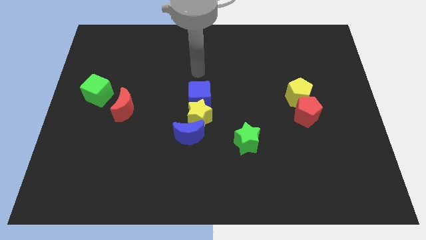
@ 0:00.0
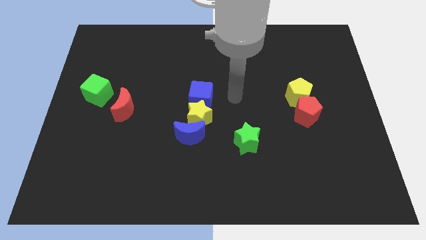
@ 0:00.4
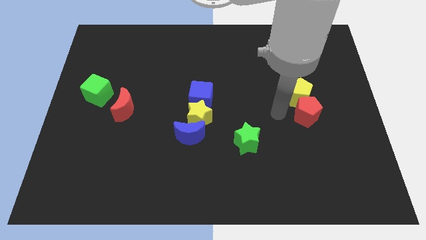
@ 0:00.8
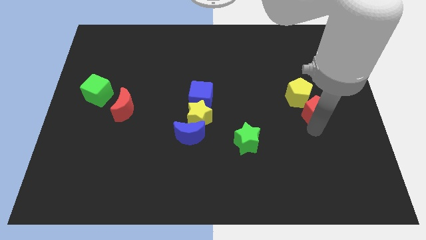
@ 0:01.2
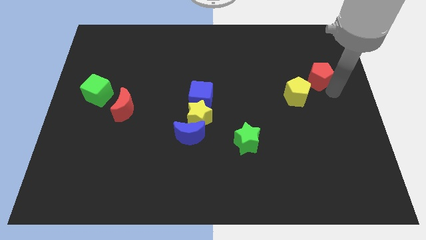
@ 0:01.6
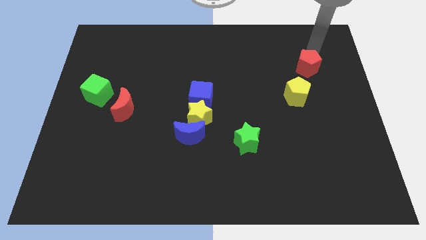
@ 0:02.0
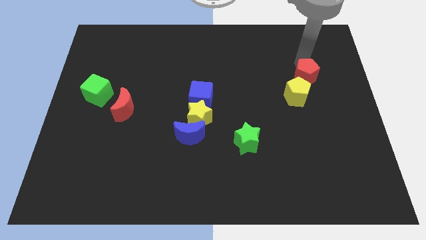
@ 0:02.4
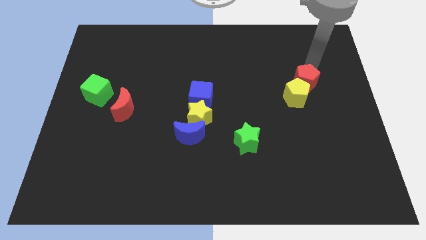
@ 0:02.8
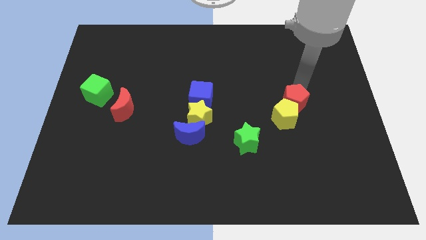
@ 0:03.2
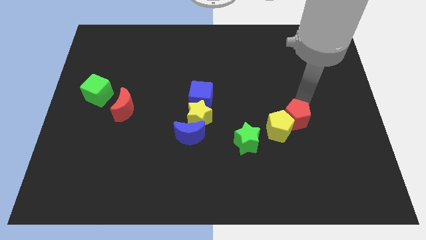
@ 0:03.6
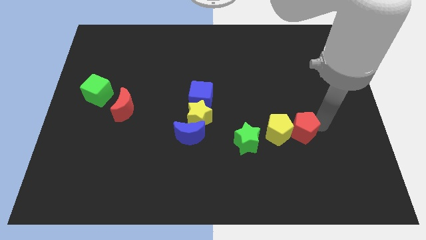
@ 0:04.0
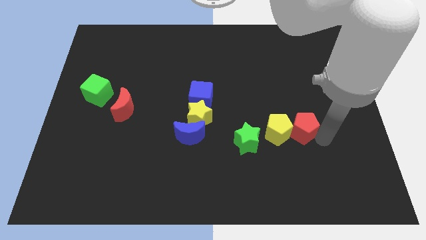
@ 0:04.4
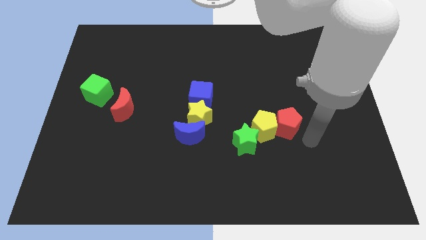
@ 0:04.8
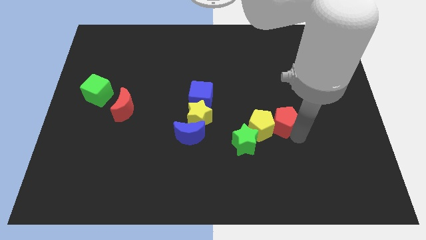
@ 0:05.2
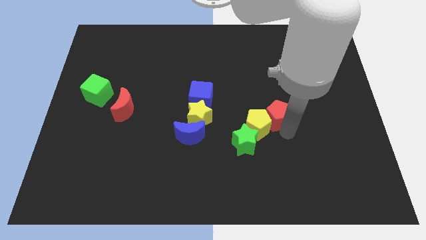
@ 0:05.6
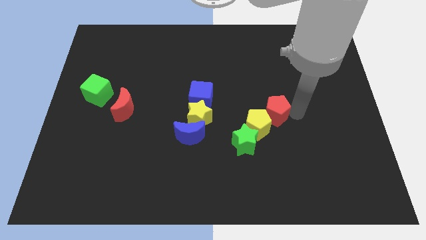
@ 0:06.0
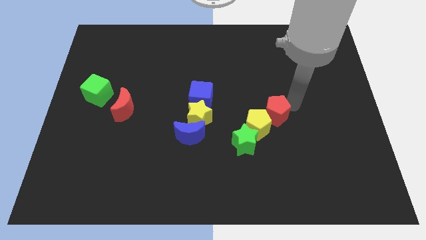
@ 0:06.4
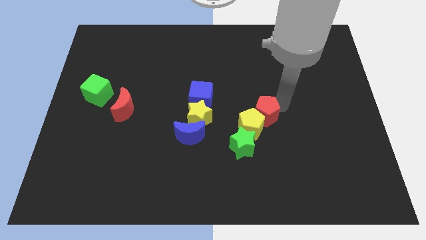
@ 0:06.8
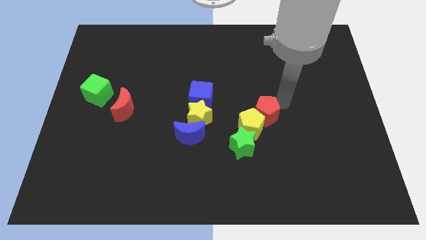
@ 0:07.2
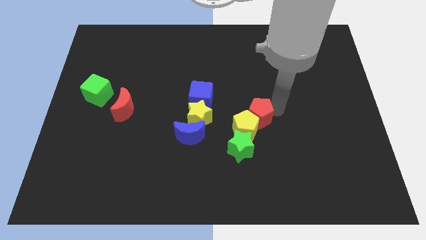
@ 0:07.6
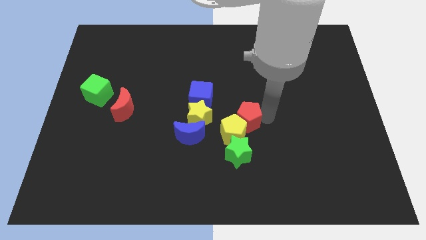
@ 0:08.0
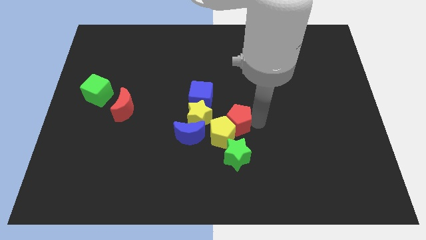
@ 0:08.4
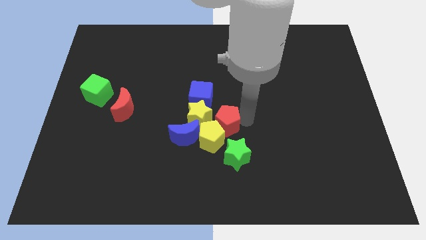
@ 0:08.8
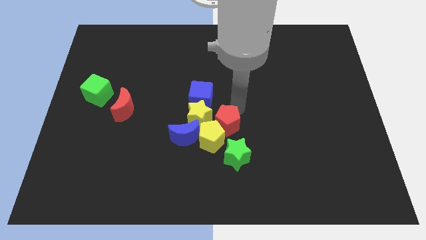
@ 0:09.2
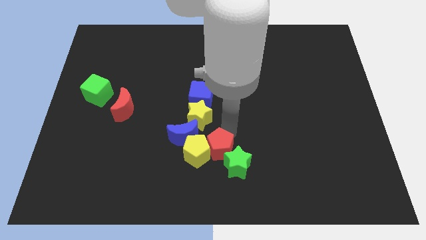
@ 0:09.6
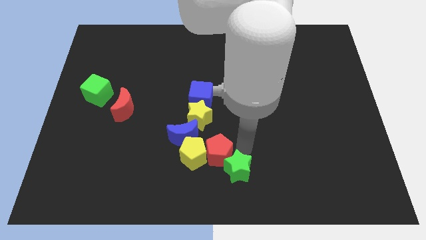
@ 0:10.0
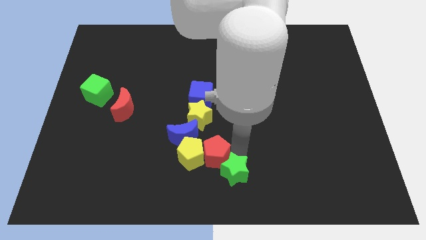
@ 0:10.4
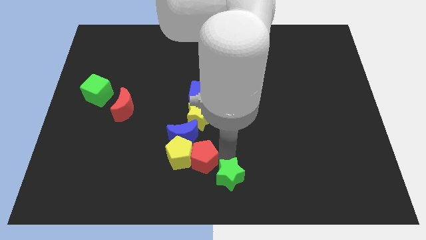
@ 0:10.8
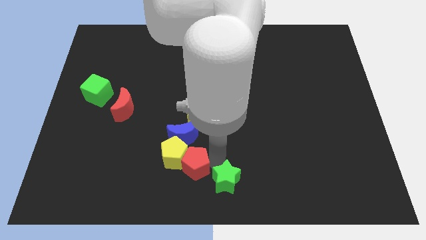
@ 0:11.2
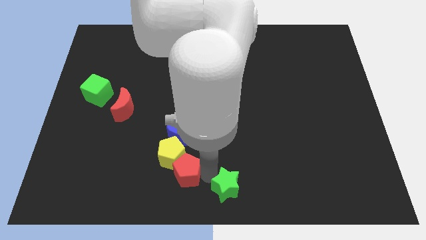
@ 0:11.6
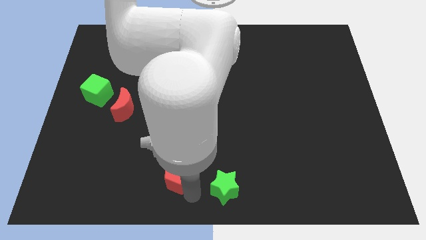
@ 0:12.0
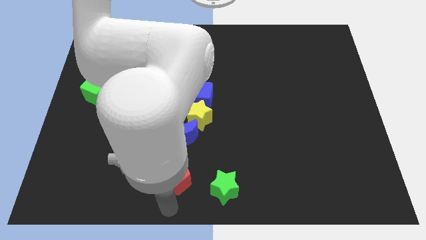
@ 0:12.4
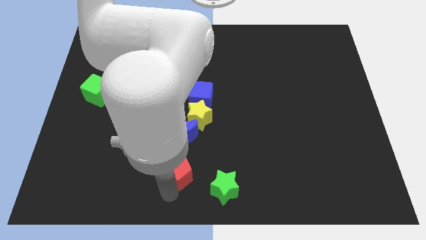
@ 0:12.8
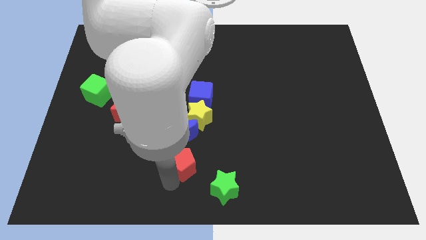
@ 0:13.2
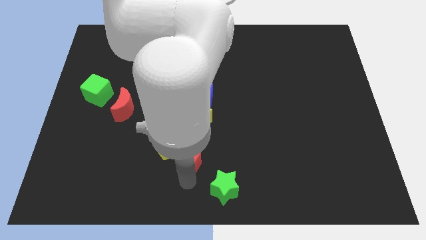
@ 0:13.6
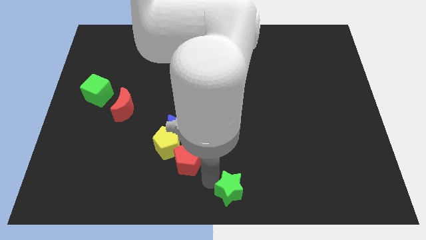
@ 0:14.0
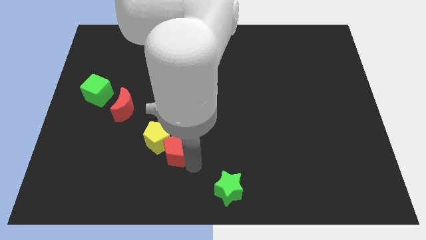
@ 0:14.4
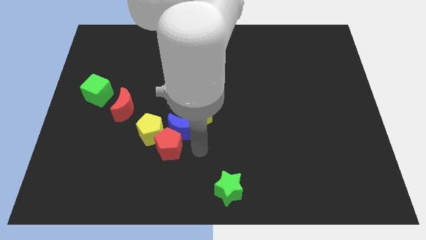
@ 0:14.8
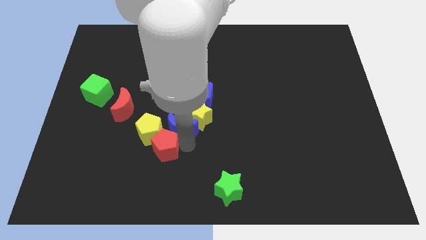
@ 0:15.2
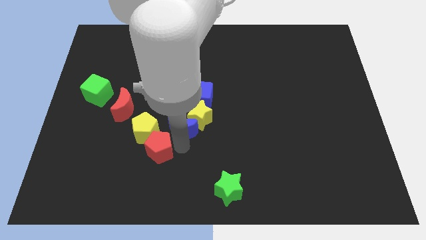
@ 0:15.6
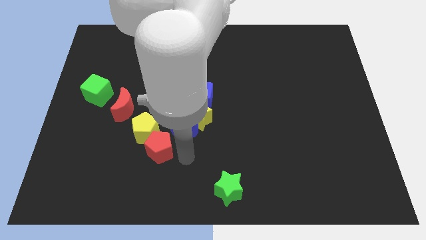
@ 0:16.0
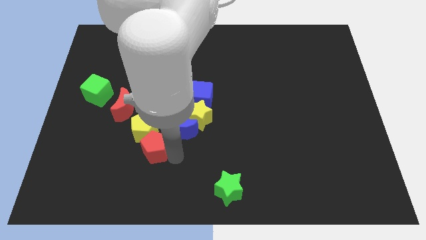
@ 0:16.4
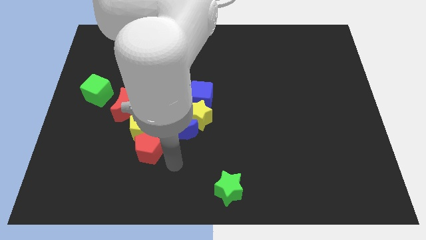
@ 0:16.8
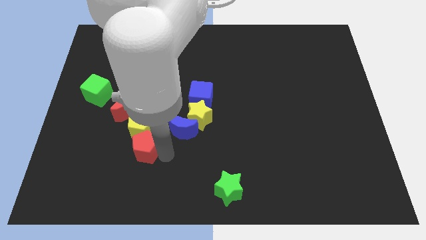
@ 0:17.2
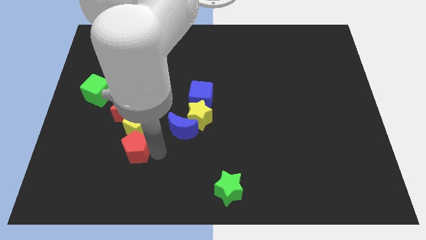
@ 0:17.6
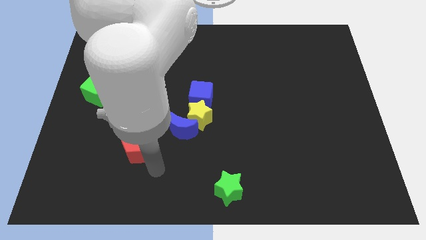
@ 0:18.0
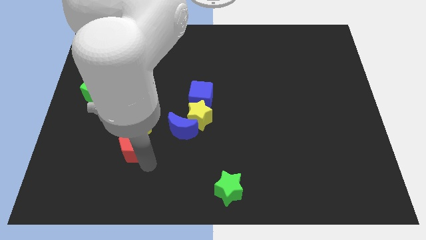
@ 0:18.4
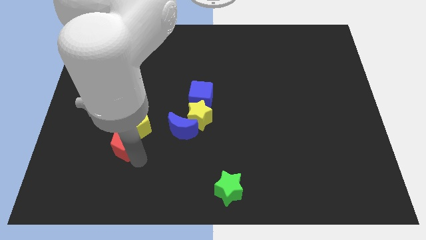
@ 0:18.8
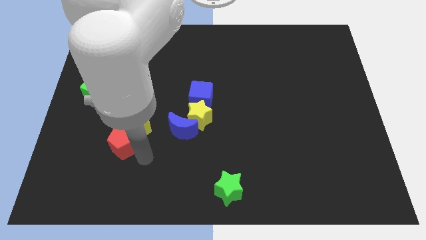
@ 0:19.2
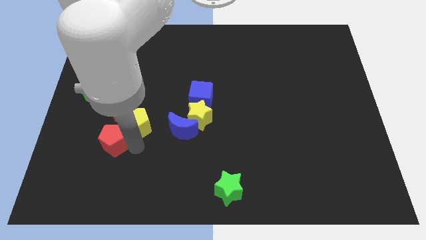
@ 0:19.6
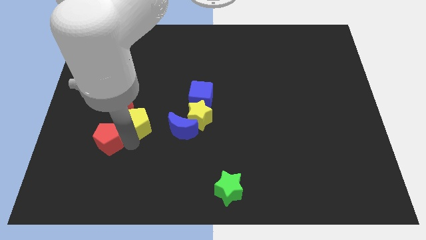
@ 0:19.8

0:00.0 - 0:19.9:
put the red pentagon diagonally down and to the left of the red moon

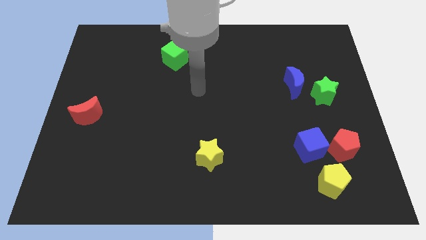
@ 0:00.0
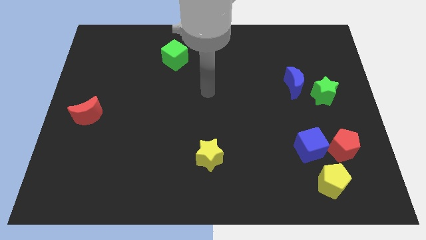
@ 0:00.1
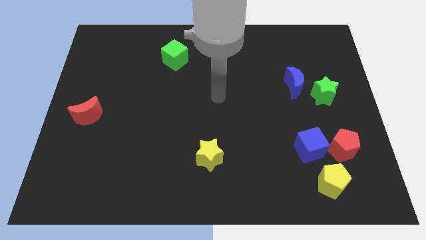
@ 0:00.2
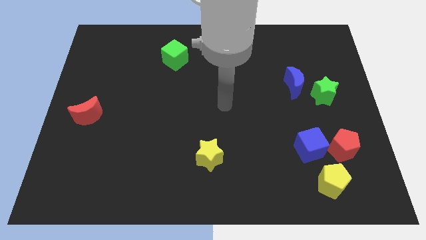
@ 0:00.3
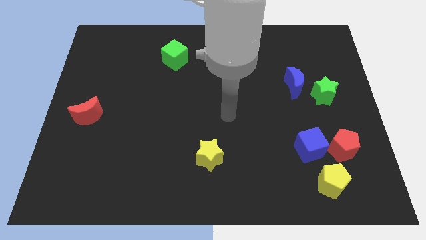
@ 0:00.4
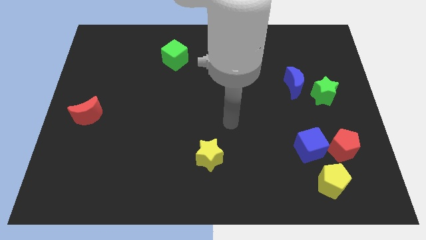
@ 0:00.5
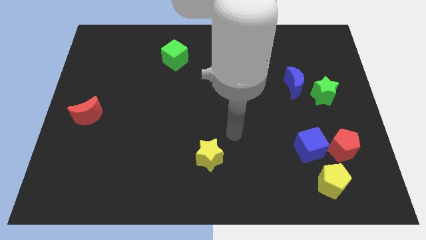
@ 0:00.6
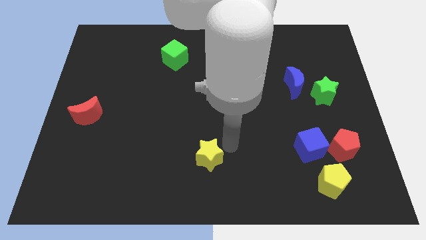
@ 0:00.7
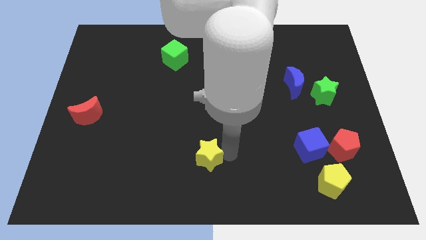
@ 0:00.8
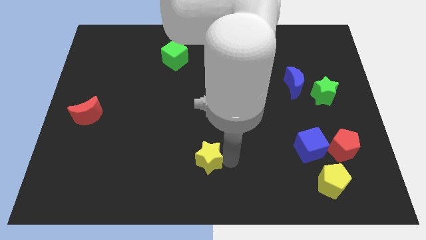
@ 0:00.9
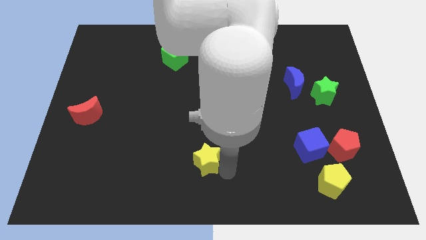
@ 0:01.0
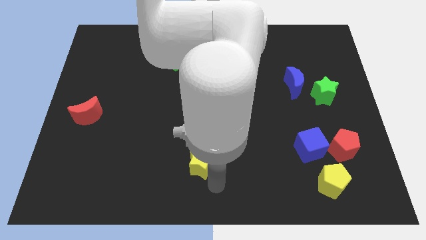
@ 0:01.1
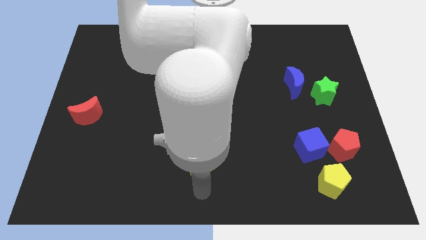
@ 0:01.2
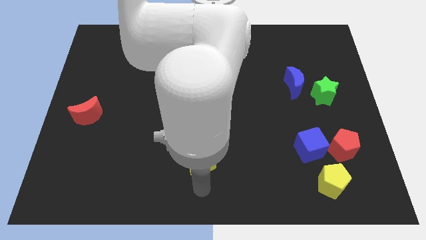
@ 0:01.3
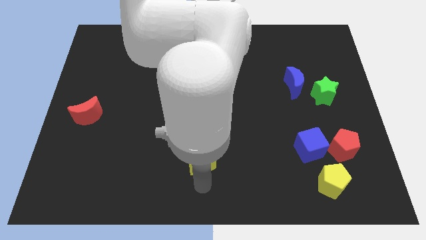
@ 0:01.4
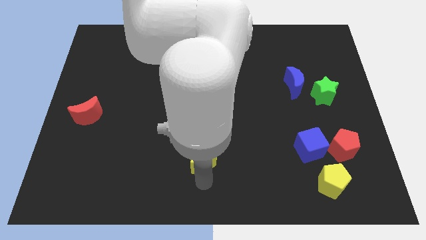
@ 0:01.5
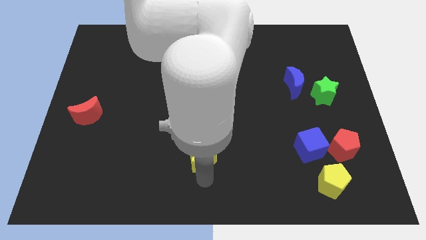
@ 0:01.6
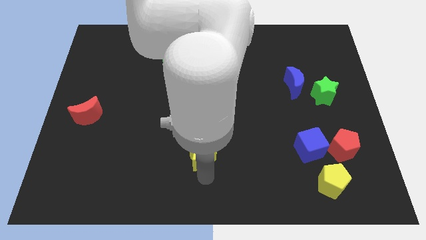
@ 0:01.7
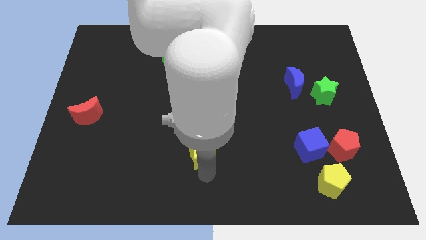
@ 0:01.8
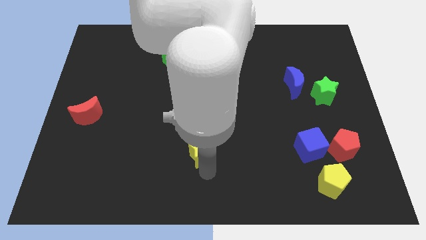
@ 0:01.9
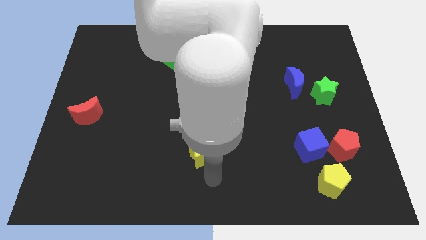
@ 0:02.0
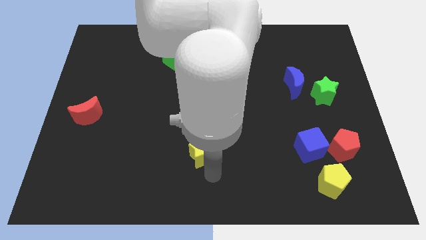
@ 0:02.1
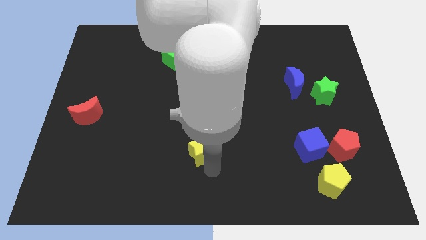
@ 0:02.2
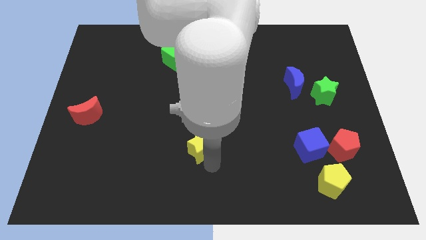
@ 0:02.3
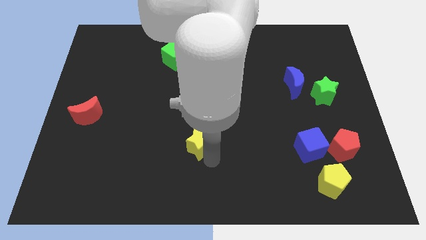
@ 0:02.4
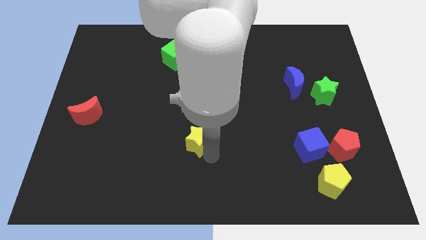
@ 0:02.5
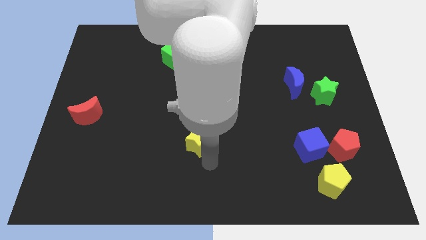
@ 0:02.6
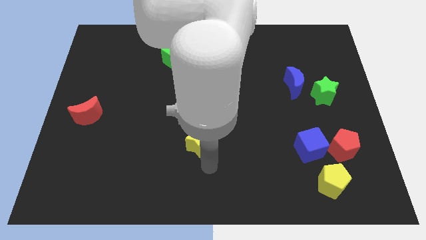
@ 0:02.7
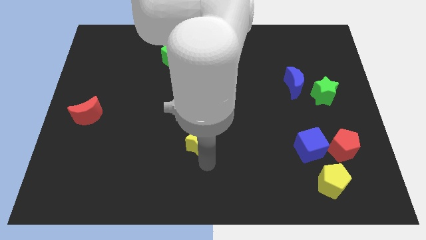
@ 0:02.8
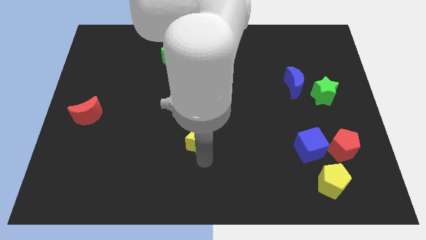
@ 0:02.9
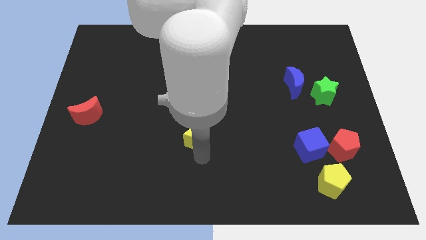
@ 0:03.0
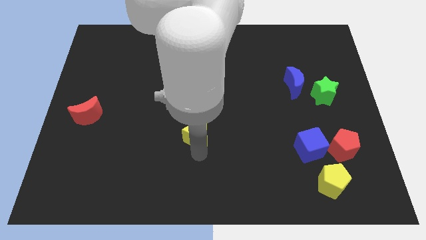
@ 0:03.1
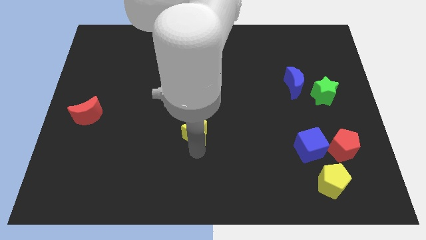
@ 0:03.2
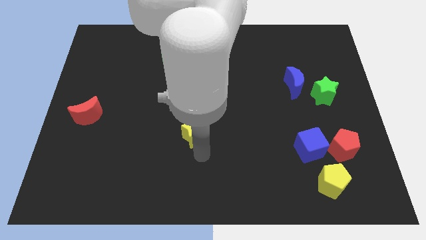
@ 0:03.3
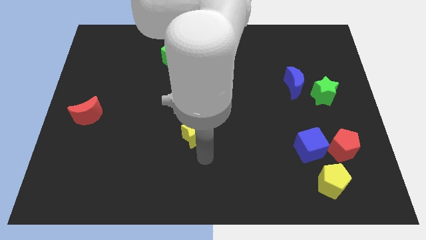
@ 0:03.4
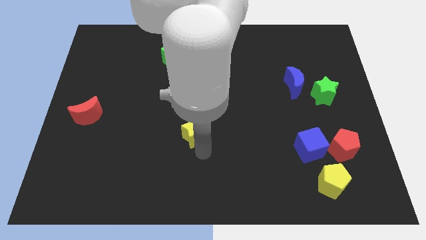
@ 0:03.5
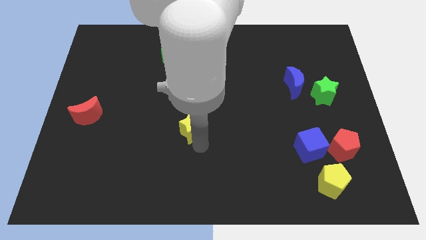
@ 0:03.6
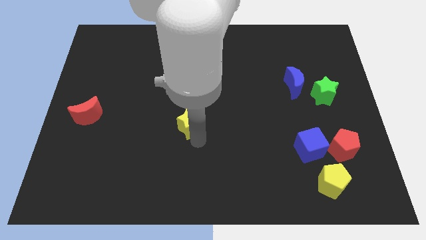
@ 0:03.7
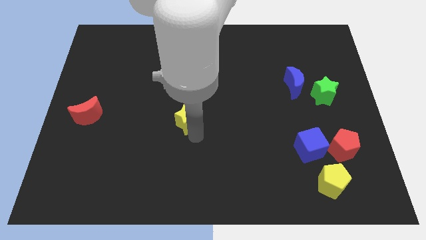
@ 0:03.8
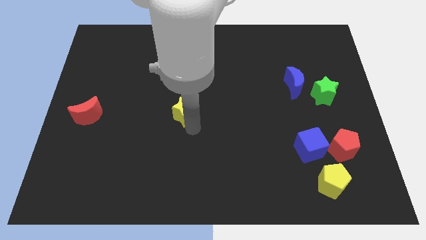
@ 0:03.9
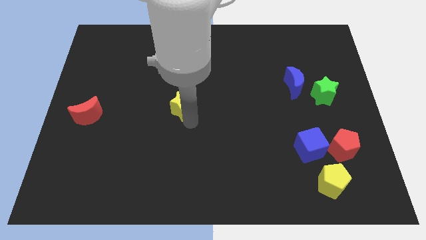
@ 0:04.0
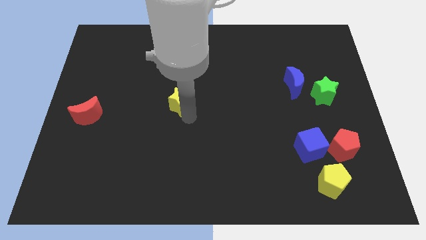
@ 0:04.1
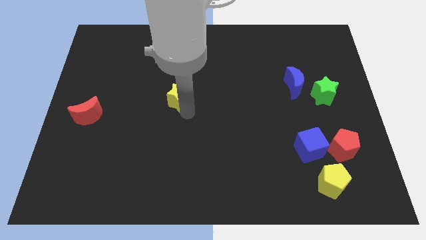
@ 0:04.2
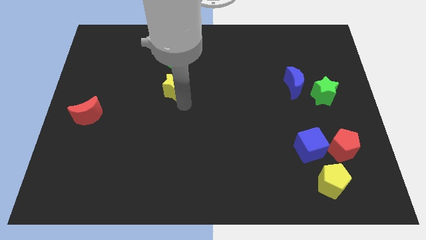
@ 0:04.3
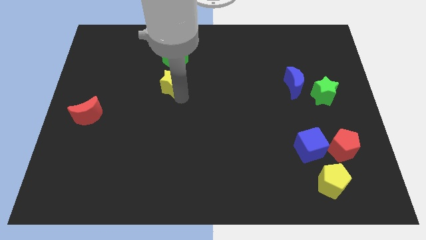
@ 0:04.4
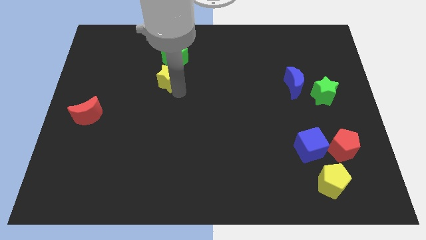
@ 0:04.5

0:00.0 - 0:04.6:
move the yellow star diagonally down and to the left of the green cube
